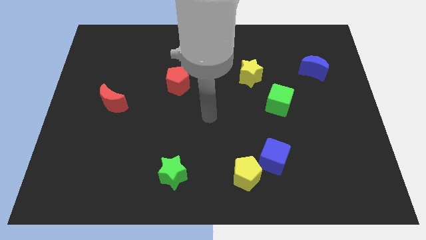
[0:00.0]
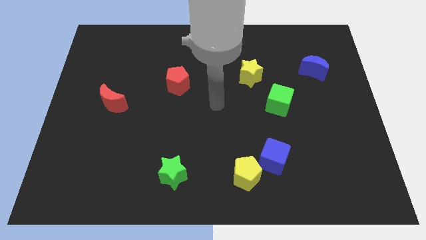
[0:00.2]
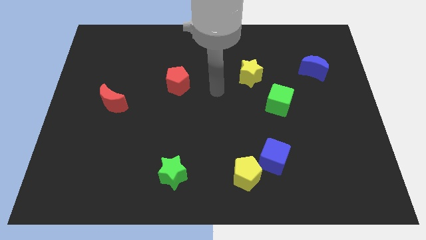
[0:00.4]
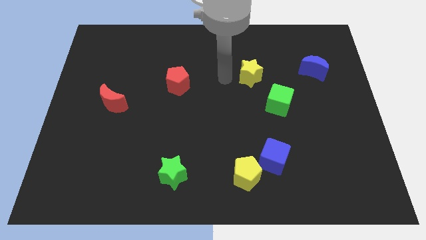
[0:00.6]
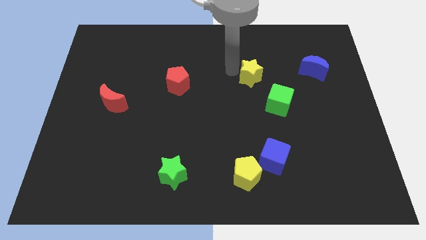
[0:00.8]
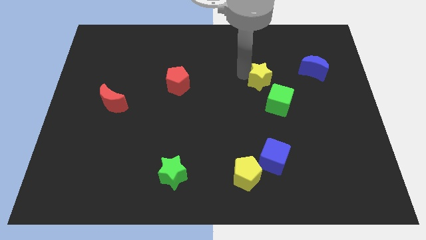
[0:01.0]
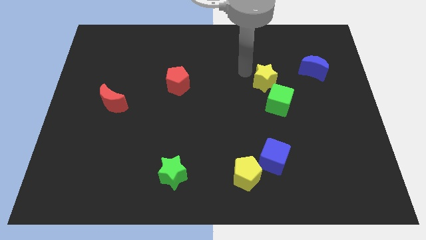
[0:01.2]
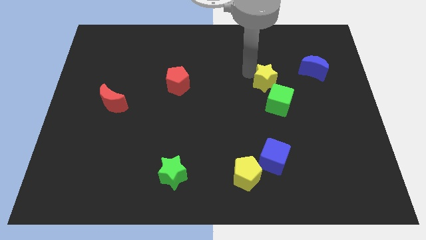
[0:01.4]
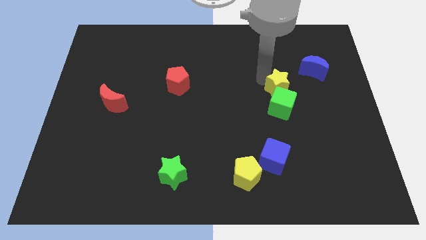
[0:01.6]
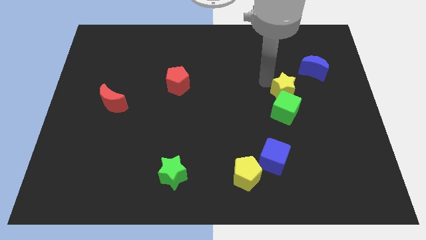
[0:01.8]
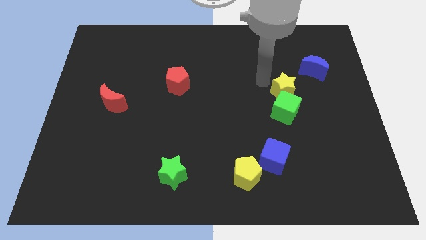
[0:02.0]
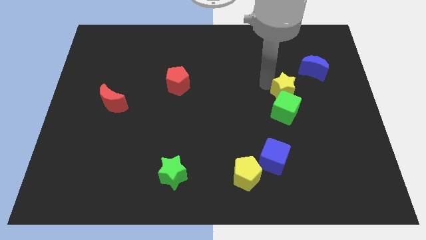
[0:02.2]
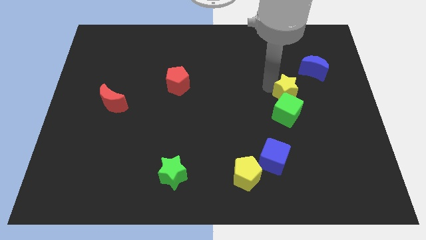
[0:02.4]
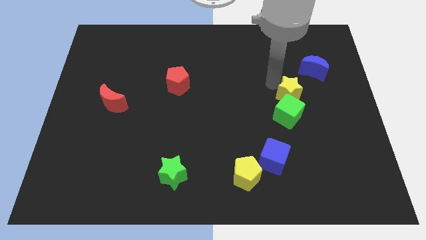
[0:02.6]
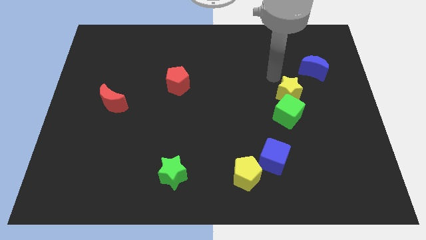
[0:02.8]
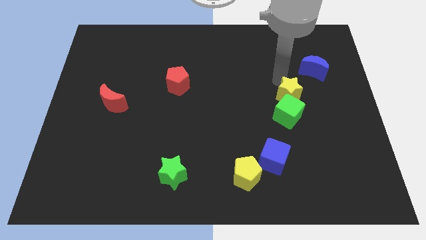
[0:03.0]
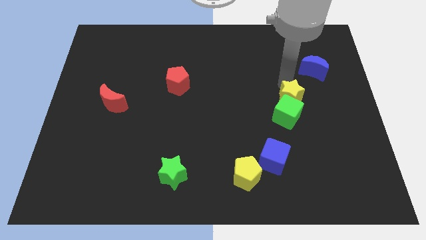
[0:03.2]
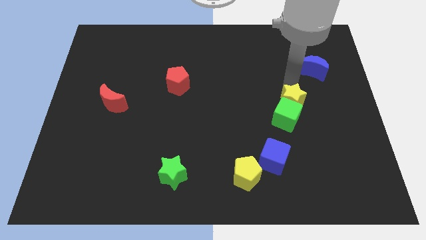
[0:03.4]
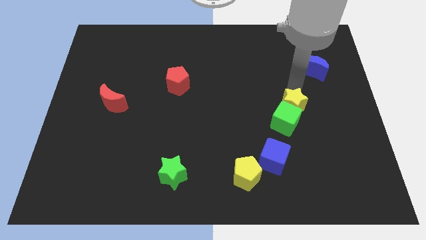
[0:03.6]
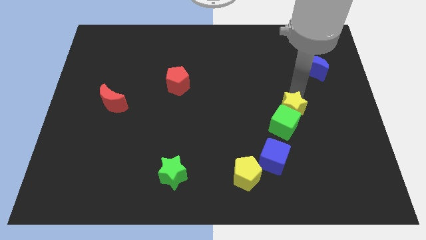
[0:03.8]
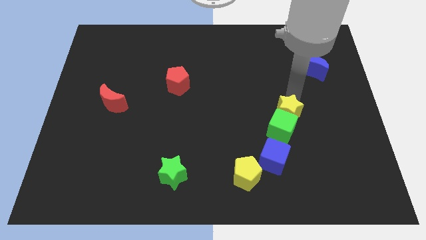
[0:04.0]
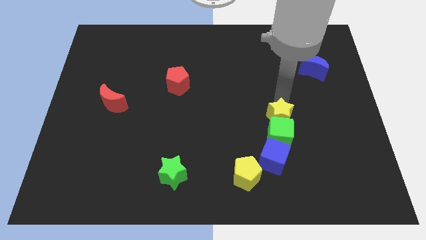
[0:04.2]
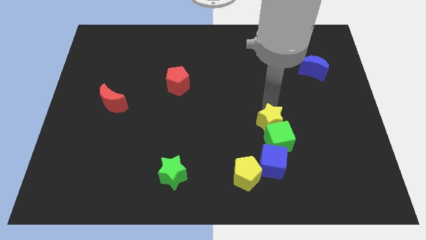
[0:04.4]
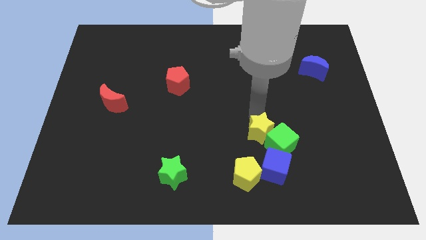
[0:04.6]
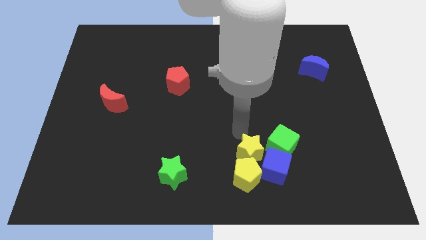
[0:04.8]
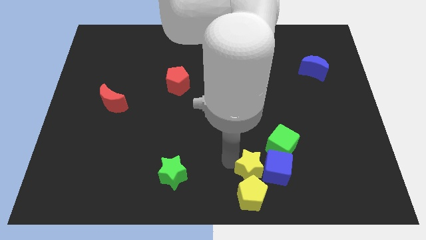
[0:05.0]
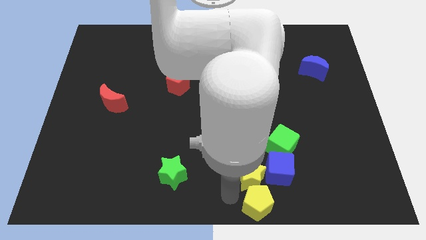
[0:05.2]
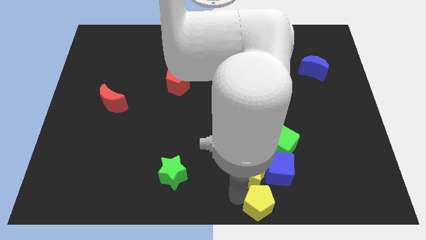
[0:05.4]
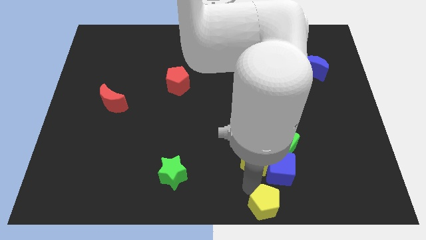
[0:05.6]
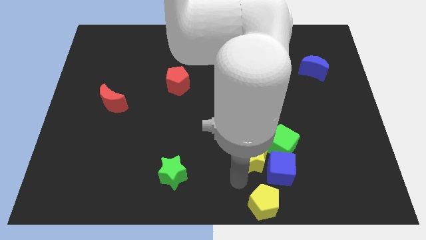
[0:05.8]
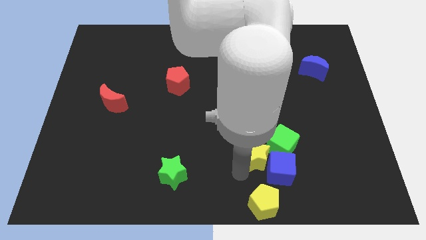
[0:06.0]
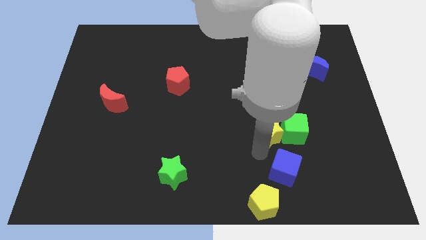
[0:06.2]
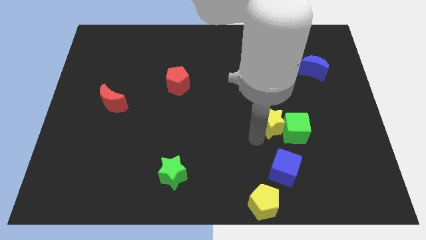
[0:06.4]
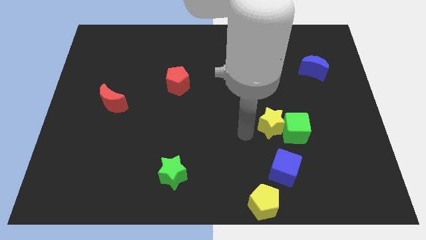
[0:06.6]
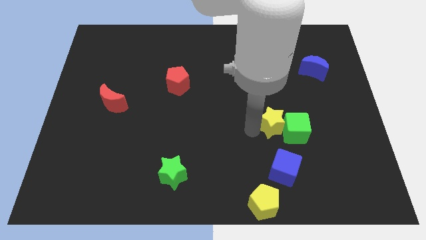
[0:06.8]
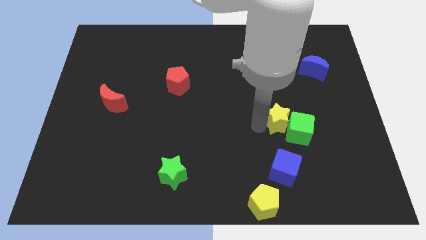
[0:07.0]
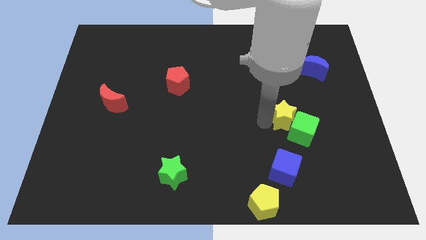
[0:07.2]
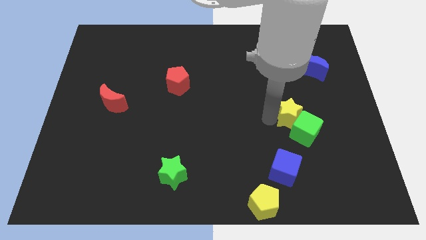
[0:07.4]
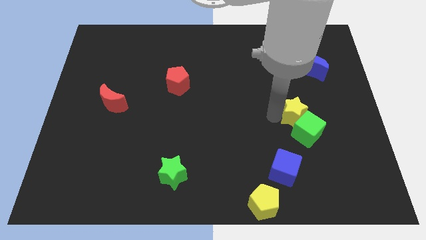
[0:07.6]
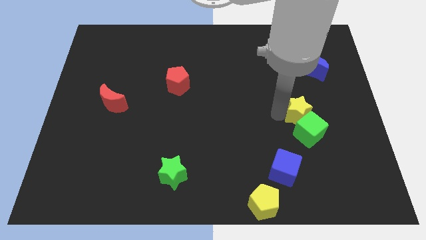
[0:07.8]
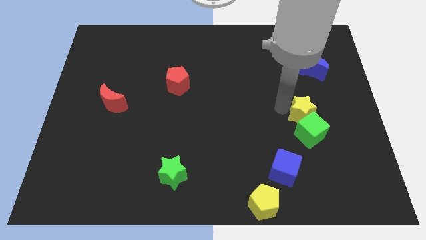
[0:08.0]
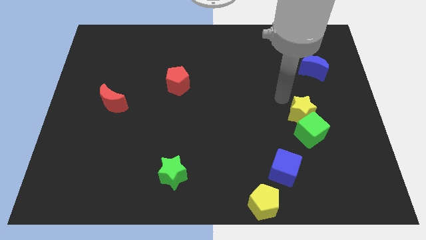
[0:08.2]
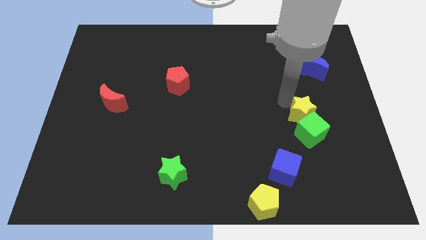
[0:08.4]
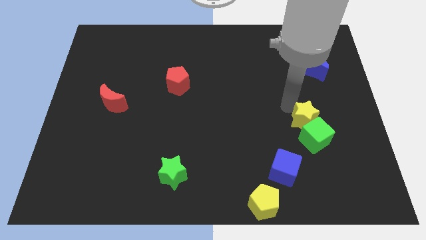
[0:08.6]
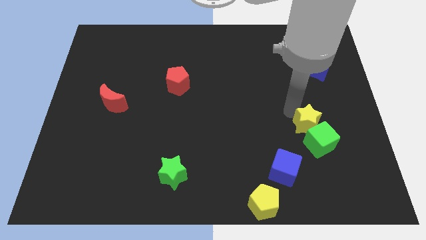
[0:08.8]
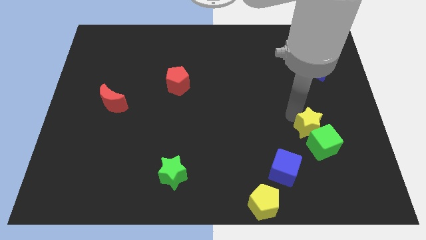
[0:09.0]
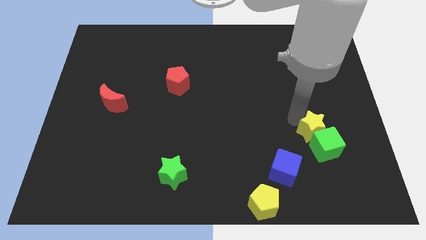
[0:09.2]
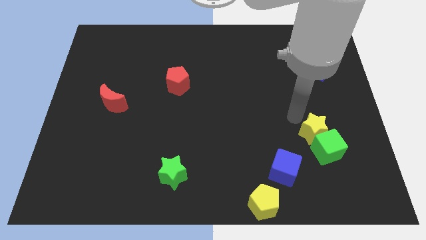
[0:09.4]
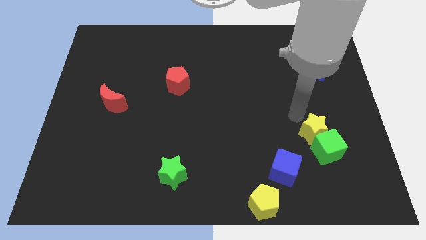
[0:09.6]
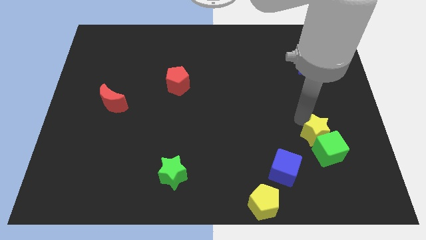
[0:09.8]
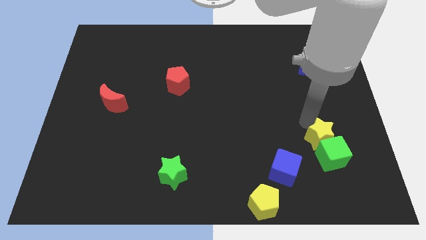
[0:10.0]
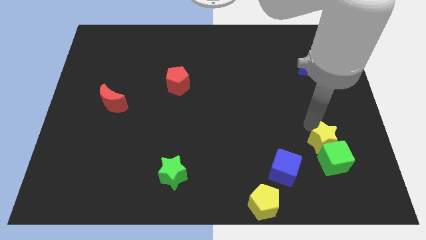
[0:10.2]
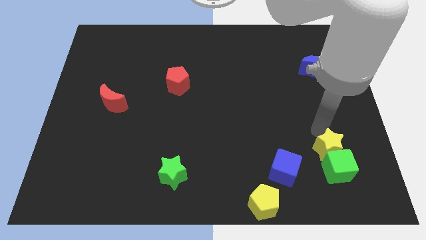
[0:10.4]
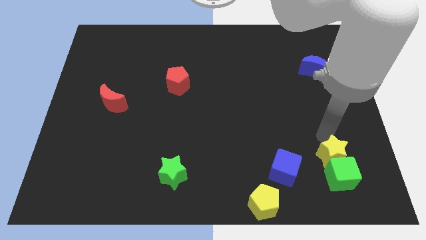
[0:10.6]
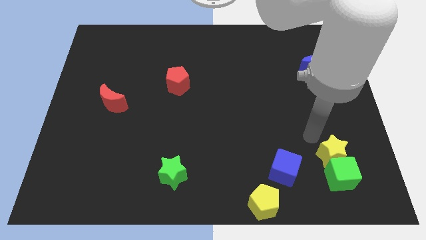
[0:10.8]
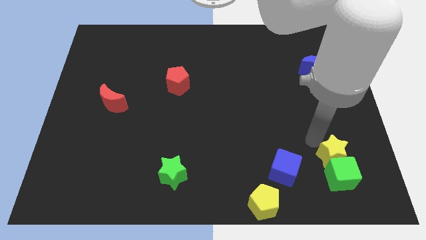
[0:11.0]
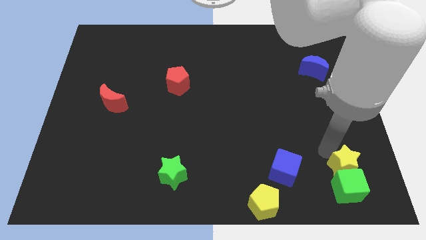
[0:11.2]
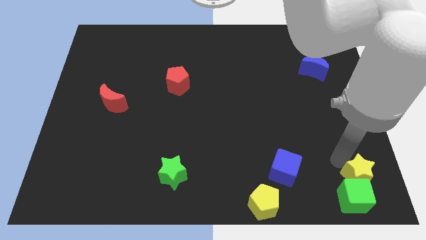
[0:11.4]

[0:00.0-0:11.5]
move the yellow star to the bottom right corner
